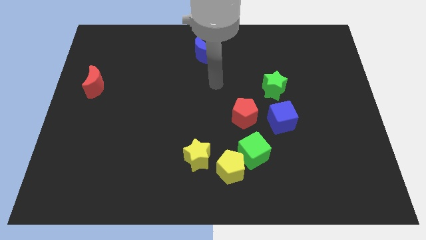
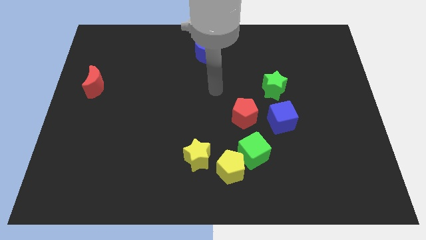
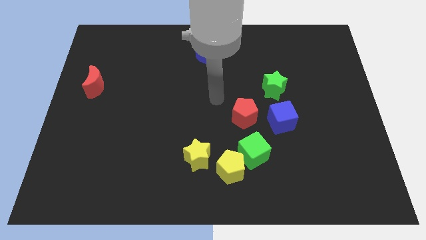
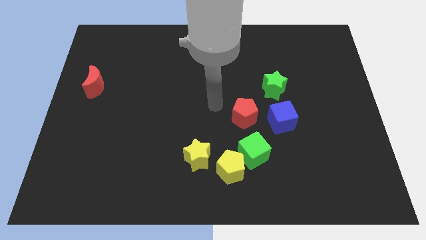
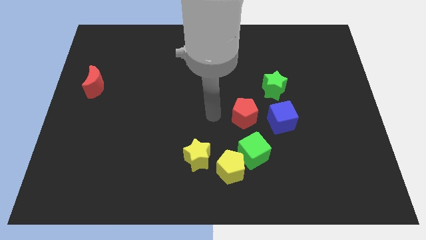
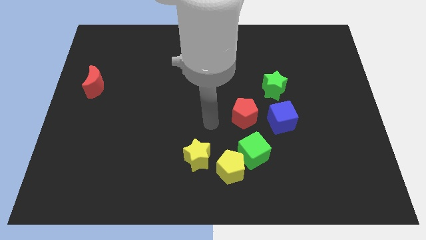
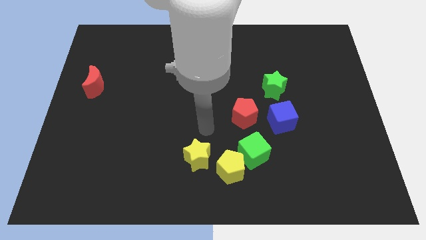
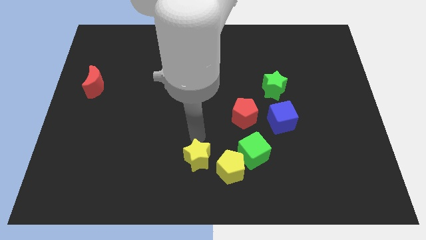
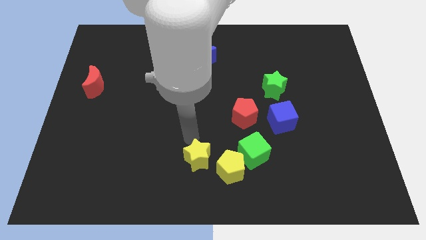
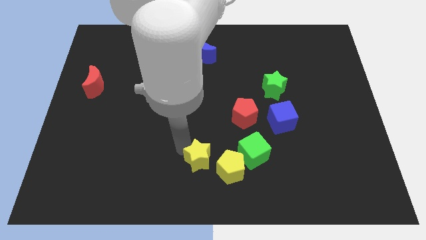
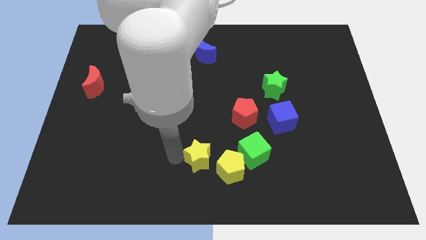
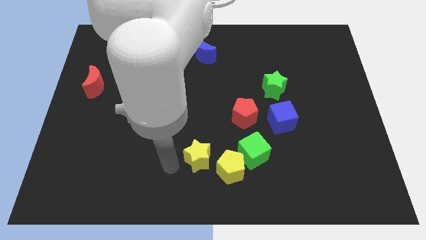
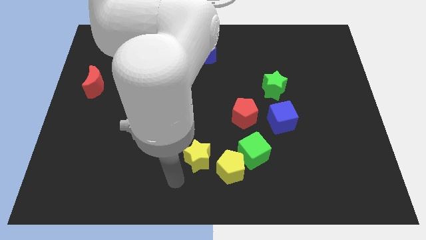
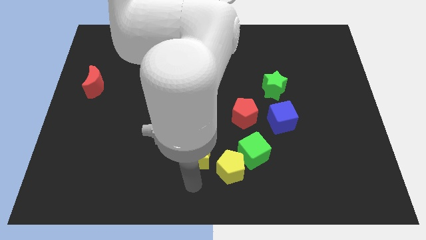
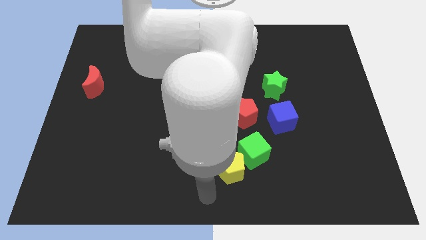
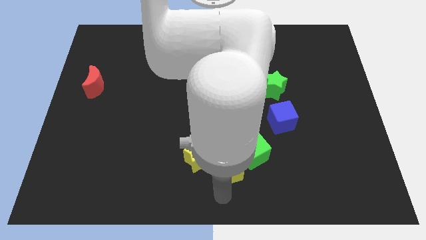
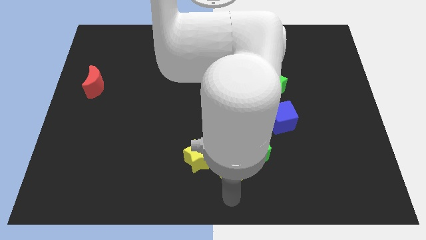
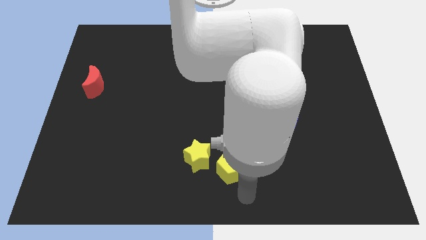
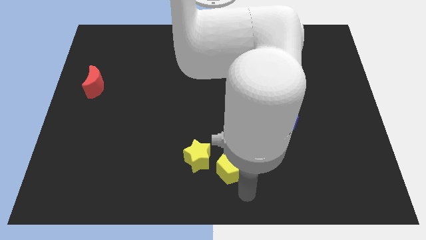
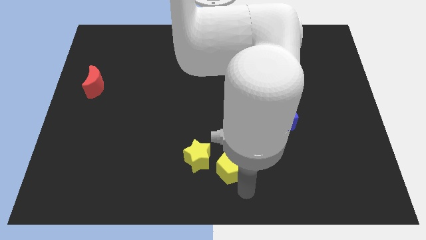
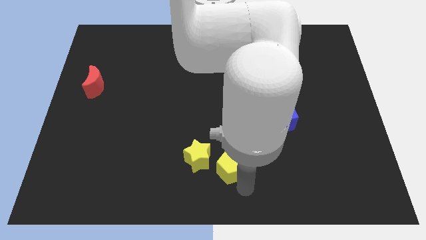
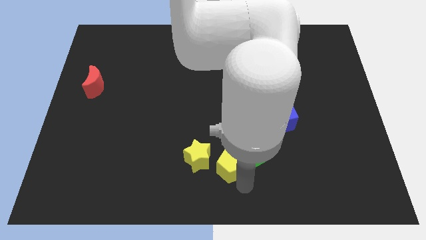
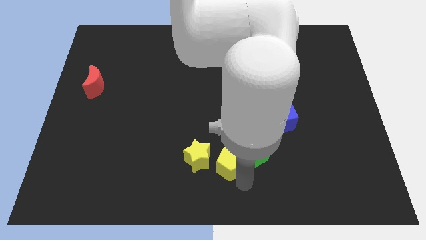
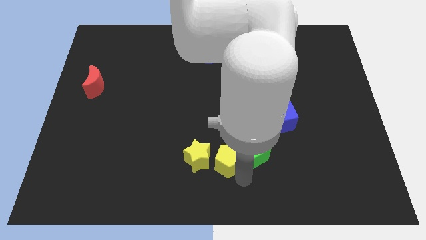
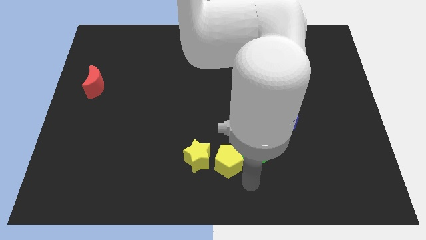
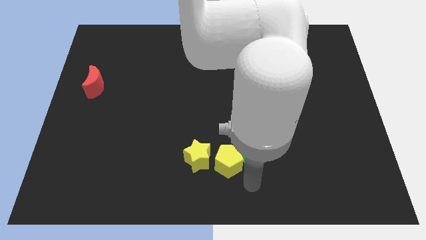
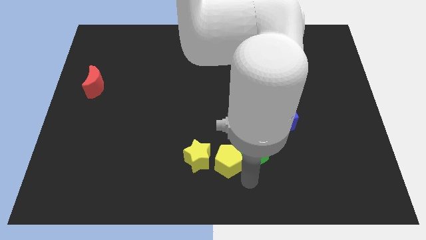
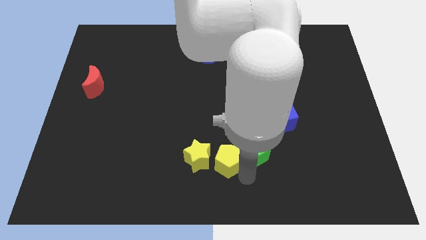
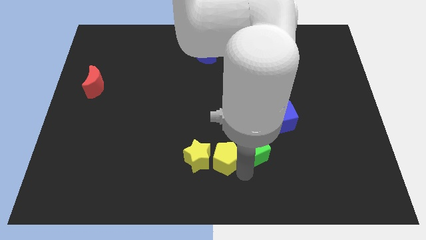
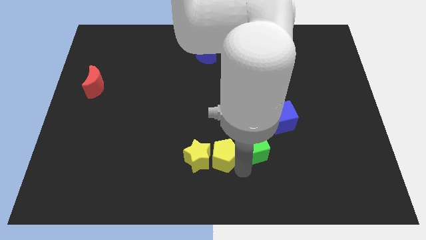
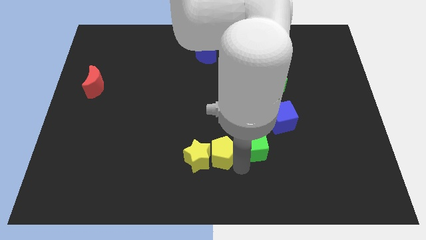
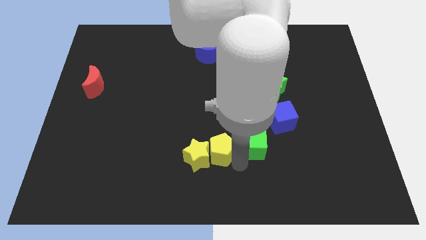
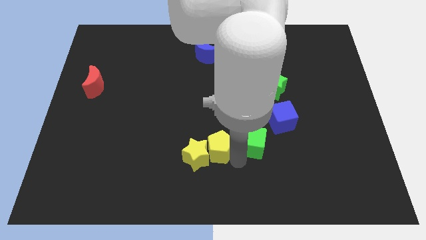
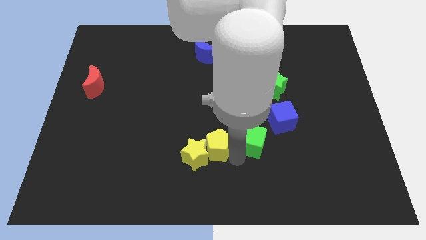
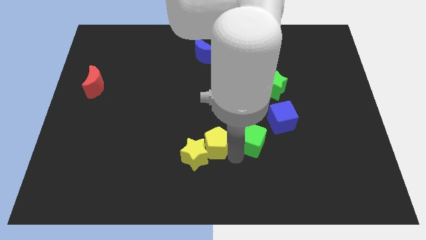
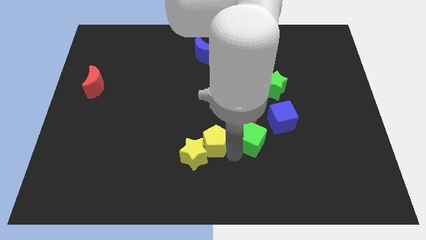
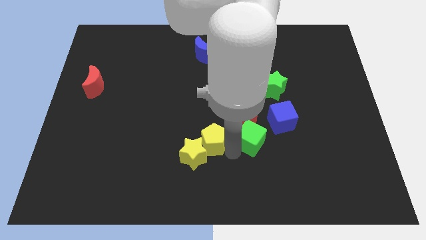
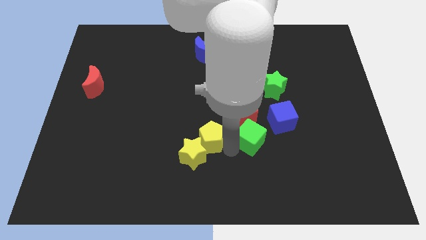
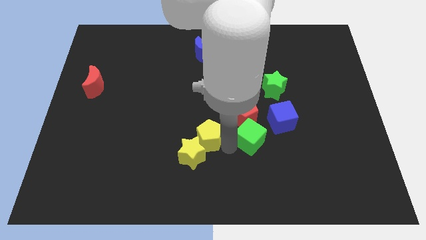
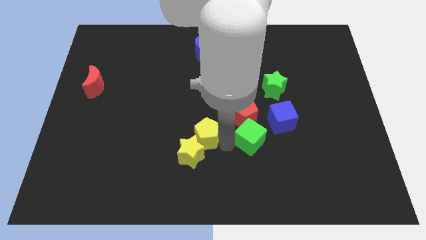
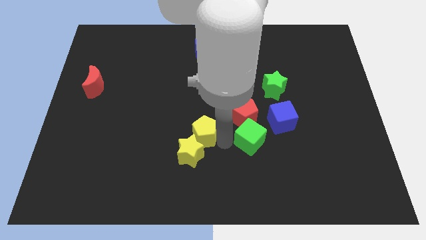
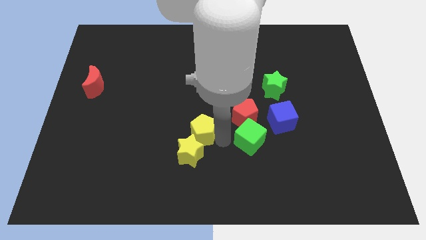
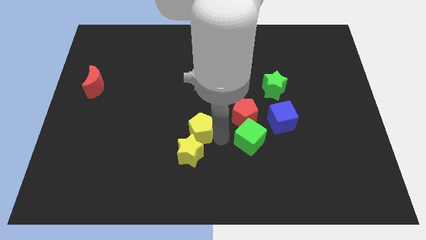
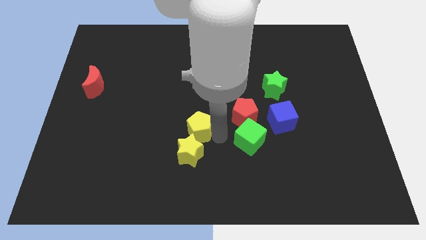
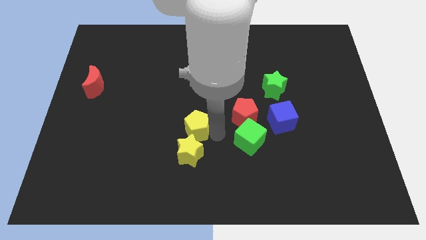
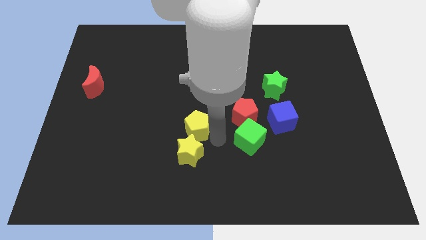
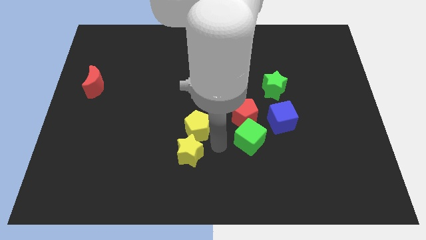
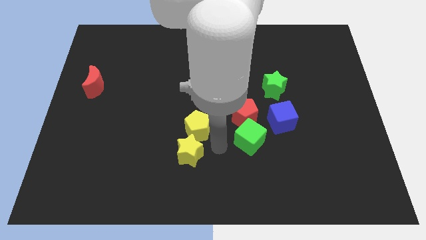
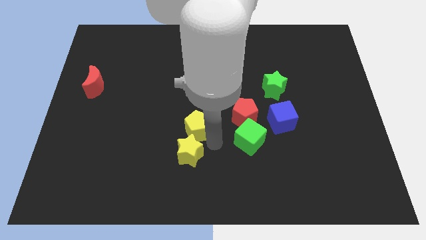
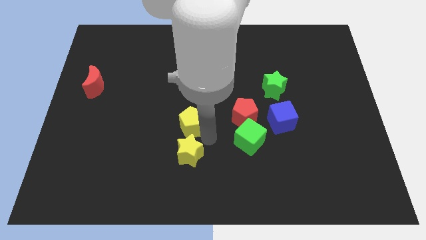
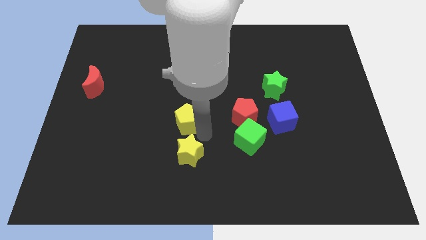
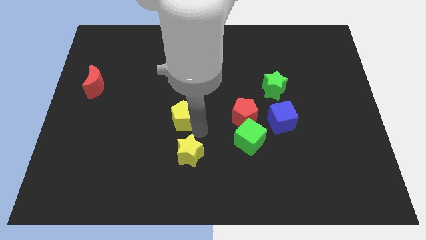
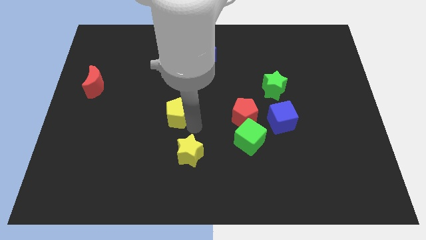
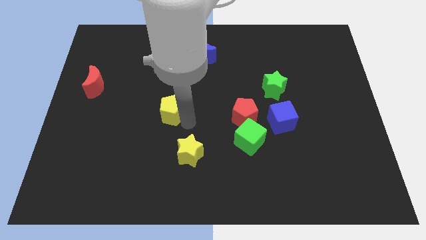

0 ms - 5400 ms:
push the yellow pentagon diagonally up and to the left

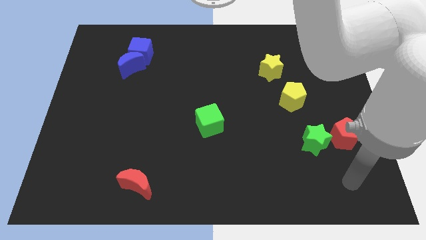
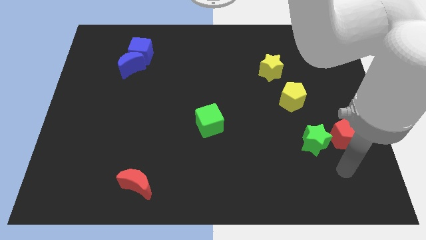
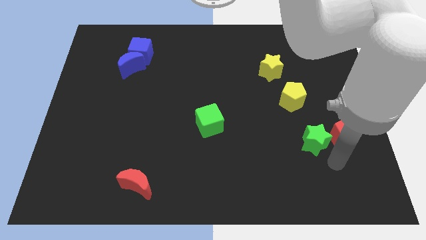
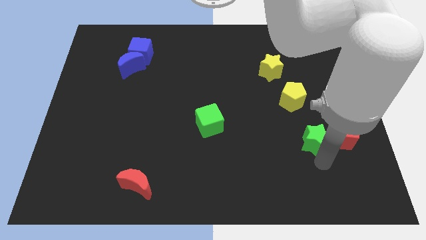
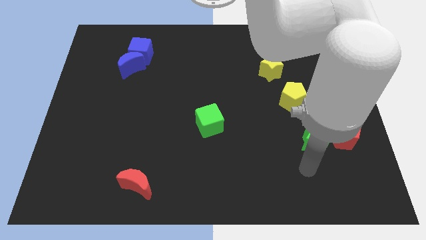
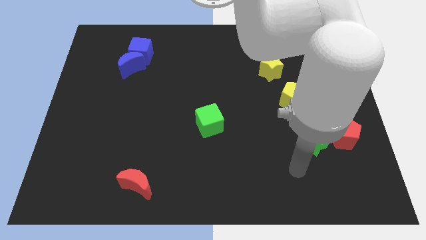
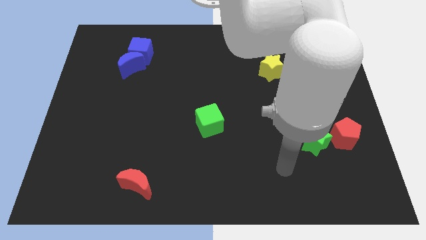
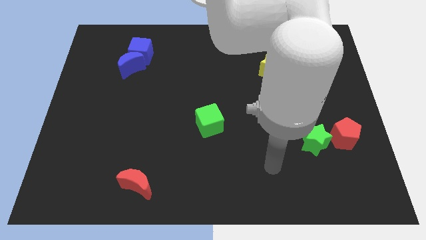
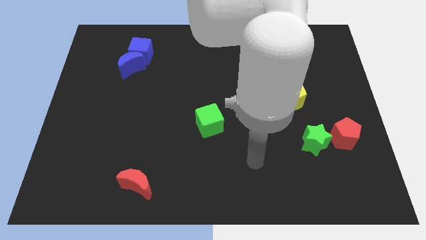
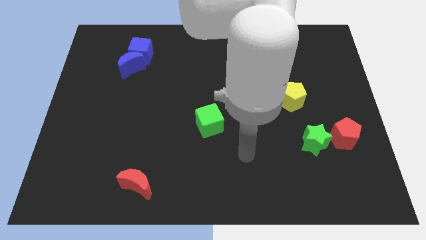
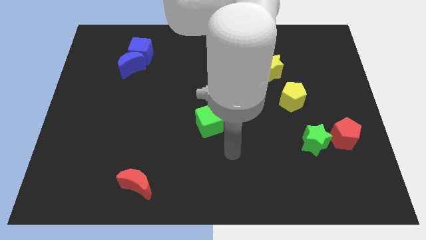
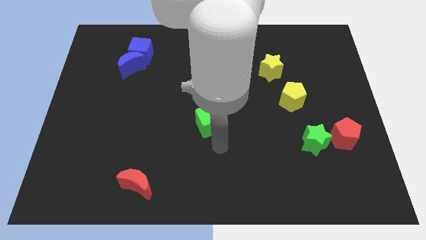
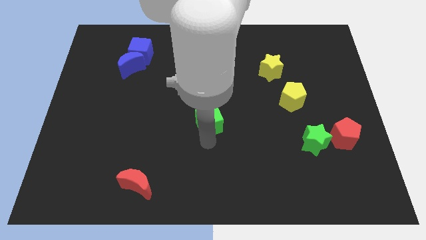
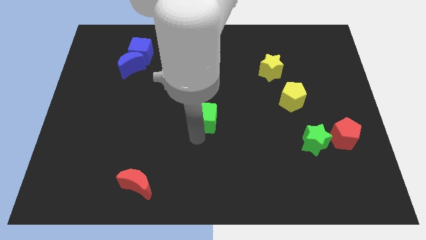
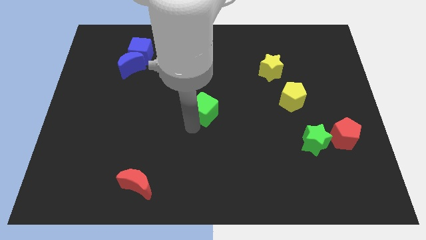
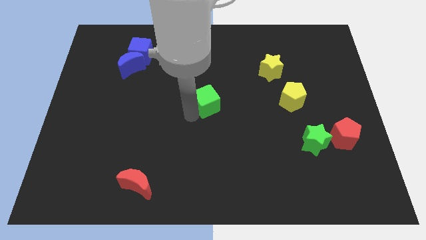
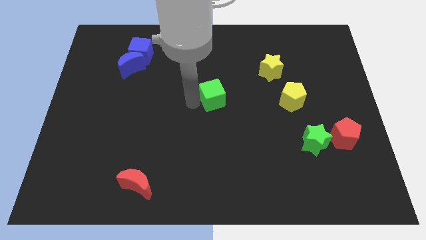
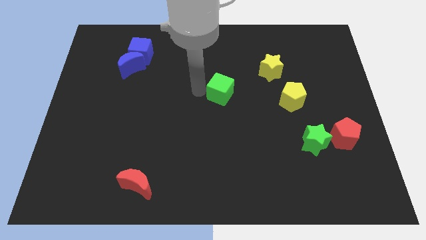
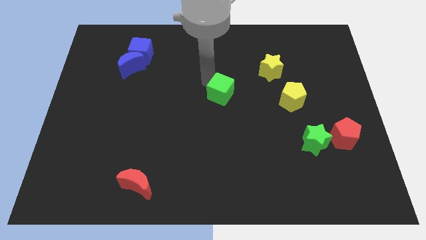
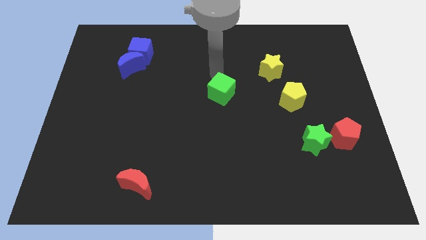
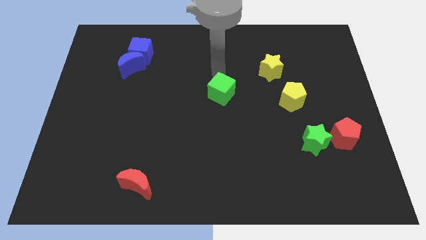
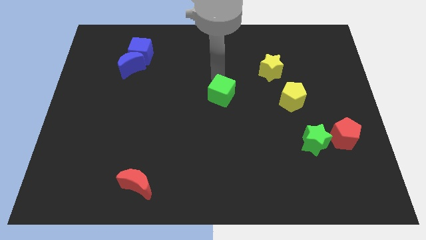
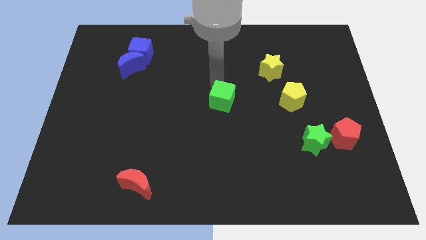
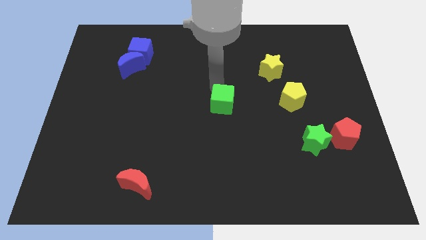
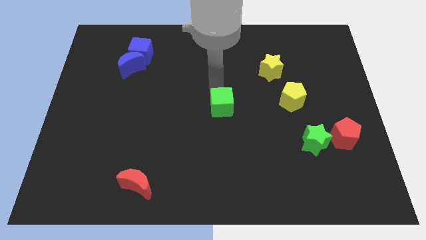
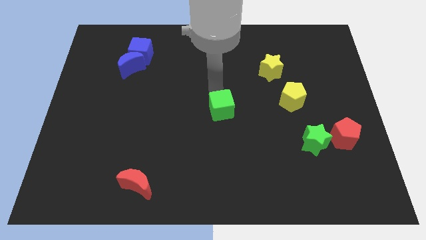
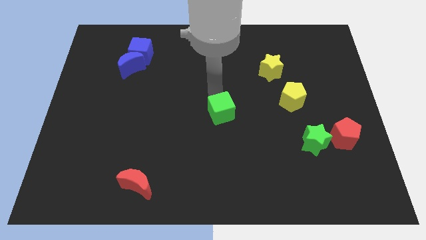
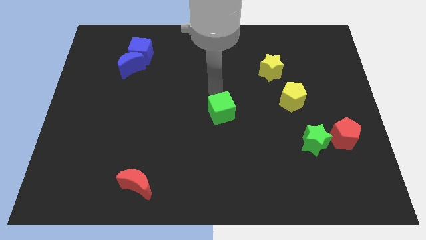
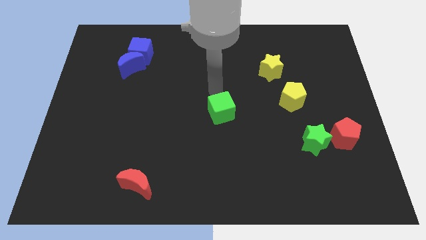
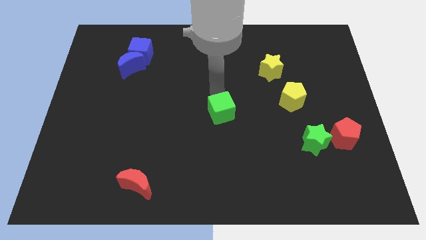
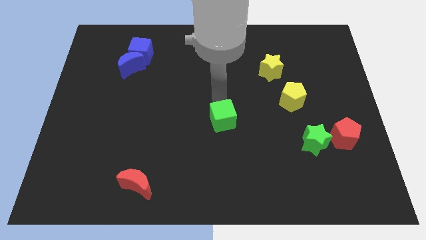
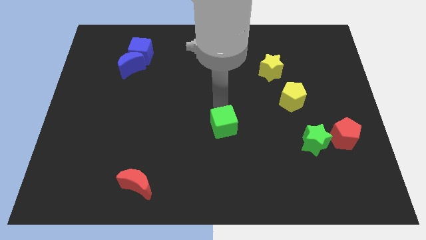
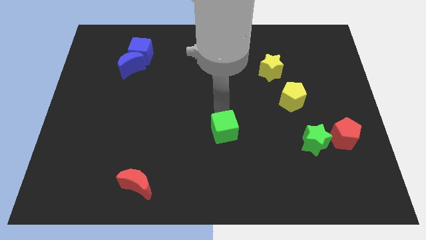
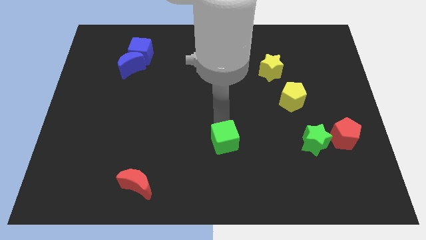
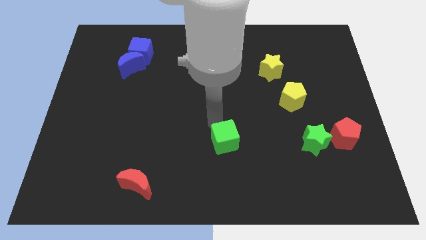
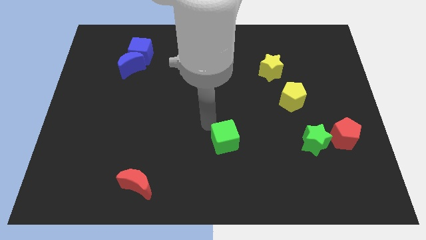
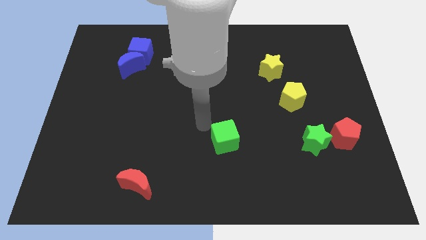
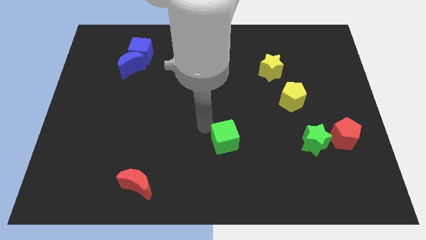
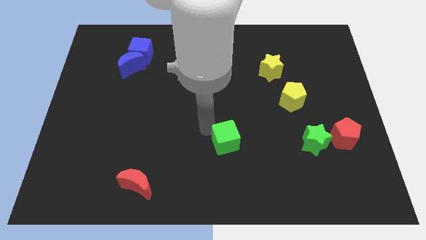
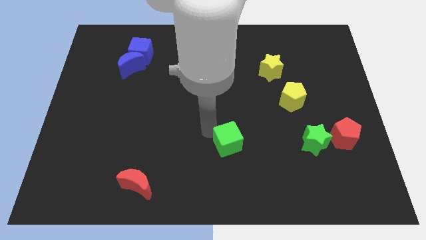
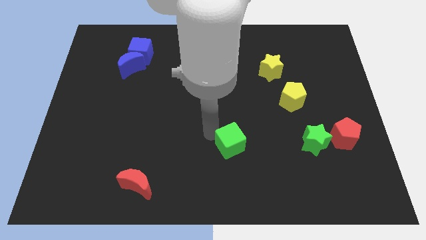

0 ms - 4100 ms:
push the green cube downwards and to the right diagonally slightly
